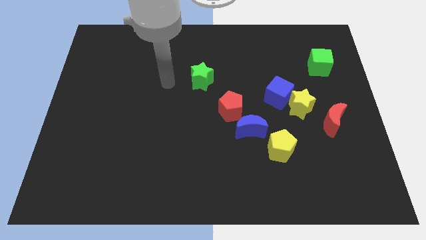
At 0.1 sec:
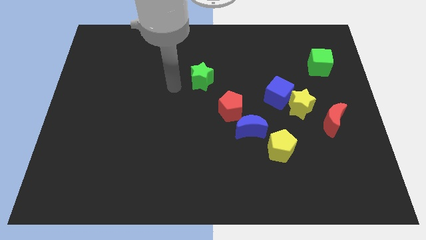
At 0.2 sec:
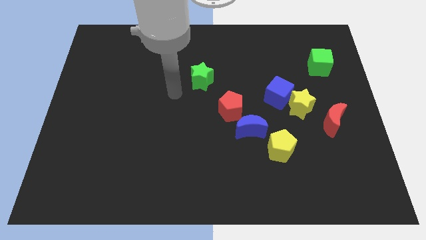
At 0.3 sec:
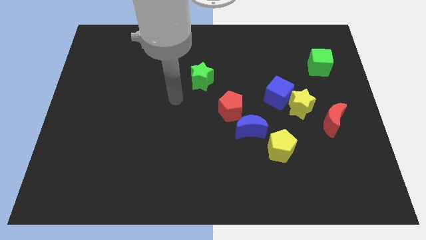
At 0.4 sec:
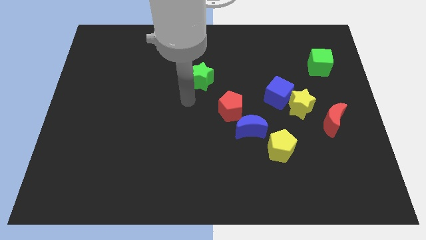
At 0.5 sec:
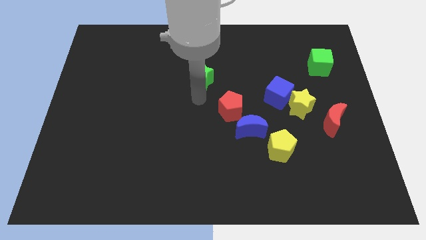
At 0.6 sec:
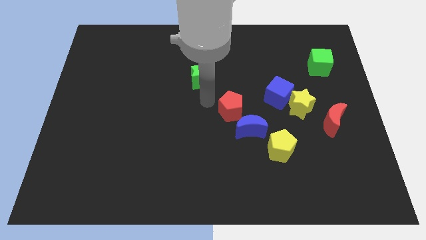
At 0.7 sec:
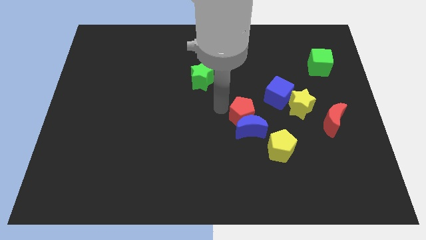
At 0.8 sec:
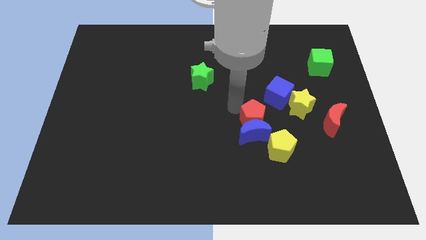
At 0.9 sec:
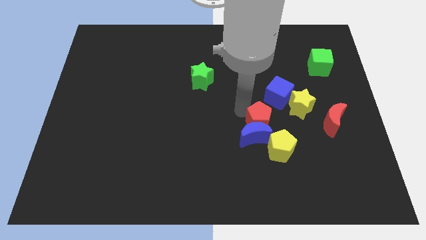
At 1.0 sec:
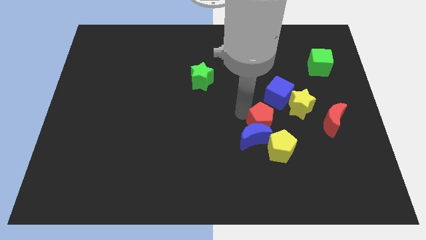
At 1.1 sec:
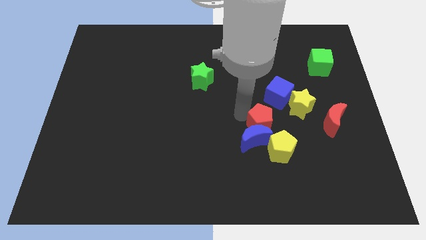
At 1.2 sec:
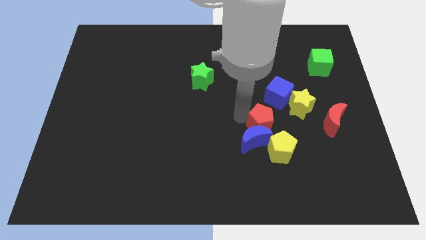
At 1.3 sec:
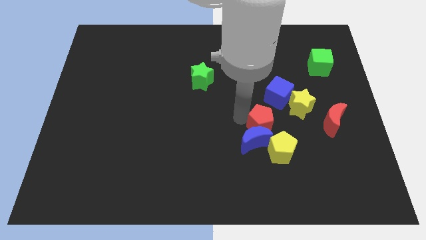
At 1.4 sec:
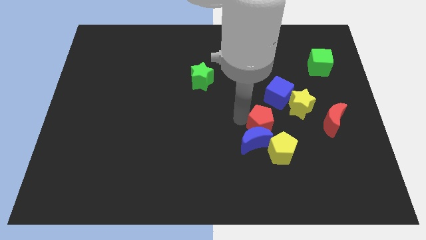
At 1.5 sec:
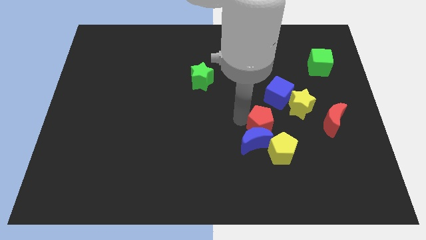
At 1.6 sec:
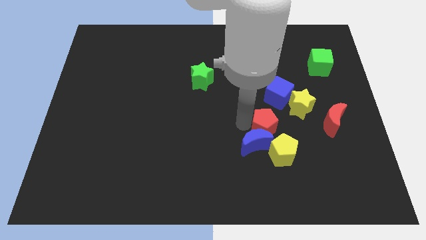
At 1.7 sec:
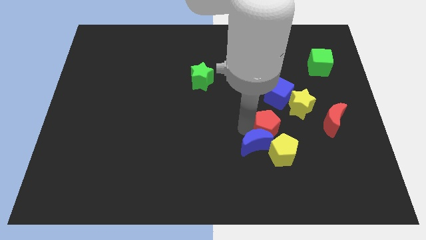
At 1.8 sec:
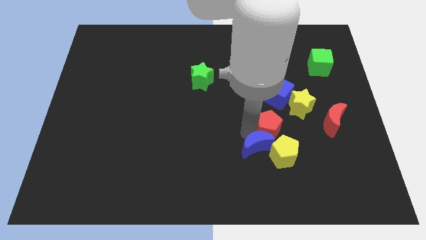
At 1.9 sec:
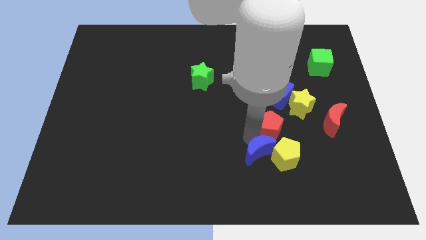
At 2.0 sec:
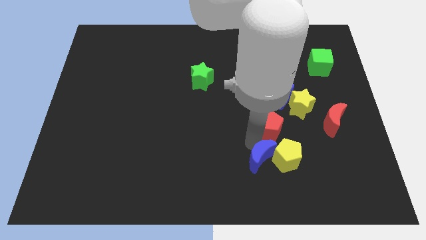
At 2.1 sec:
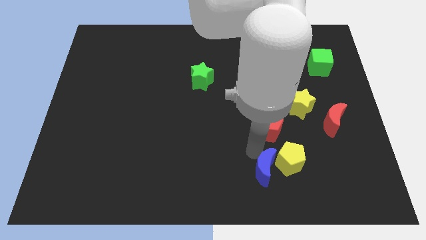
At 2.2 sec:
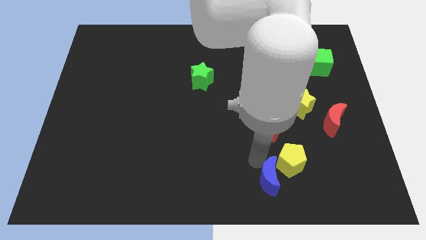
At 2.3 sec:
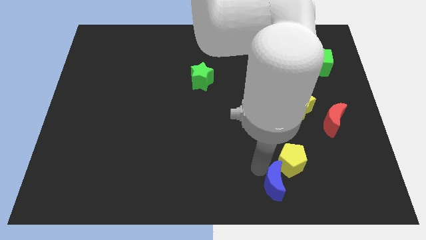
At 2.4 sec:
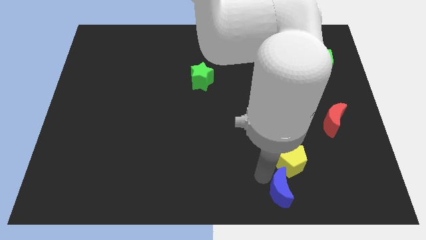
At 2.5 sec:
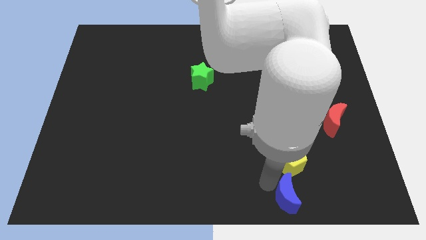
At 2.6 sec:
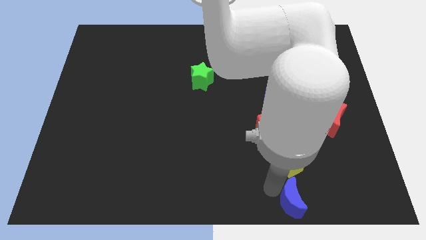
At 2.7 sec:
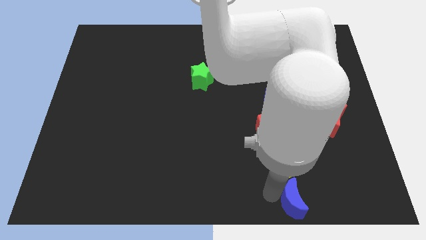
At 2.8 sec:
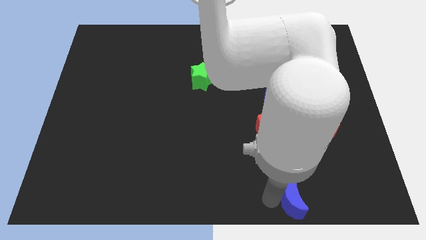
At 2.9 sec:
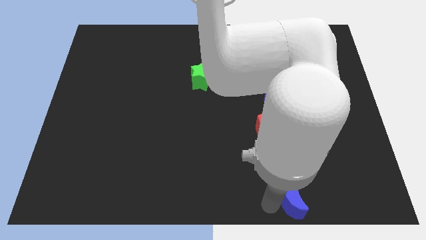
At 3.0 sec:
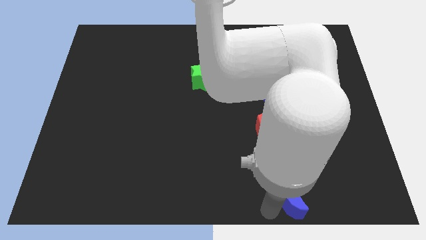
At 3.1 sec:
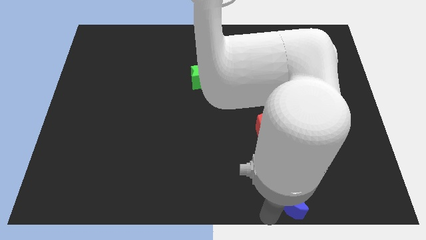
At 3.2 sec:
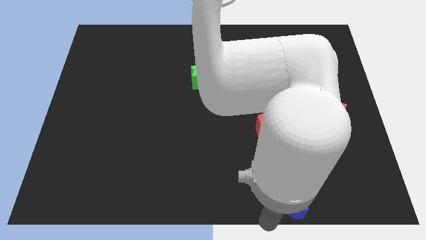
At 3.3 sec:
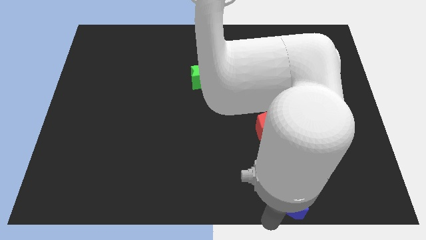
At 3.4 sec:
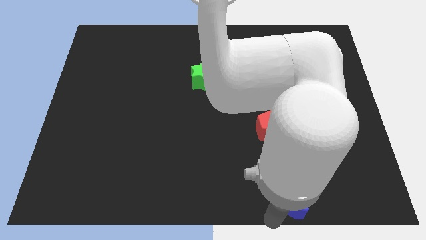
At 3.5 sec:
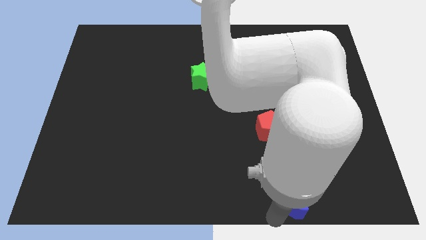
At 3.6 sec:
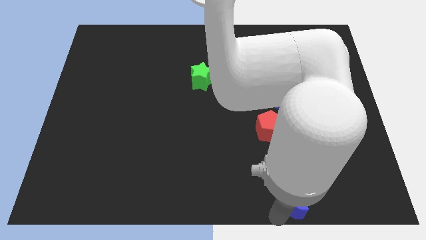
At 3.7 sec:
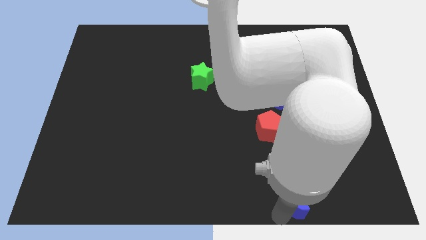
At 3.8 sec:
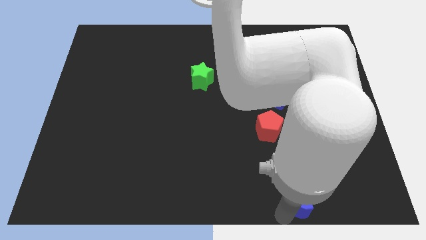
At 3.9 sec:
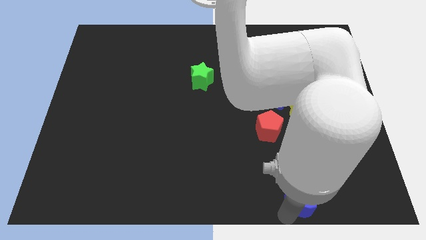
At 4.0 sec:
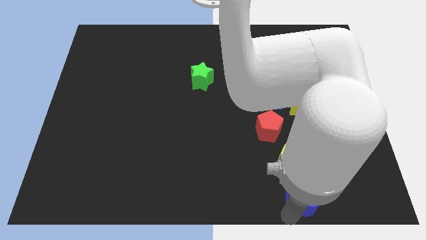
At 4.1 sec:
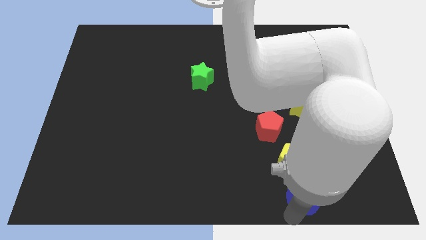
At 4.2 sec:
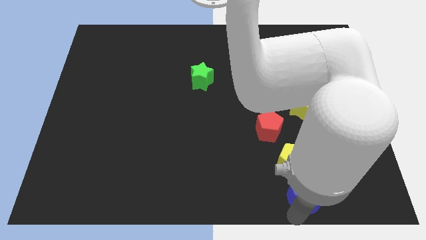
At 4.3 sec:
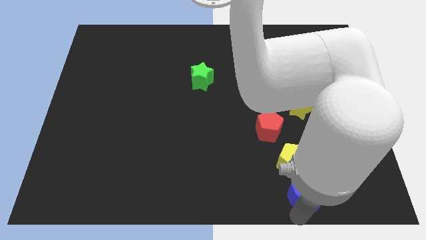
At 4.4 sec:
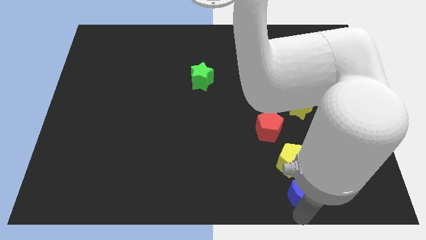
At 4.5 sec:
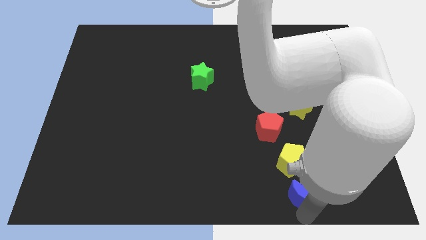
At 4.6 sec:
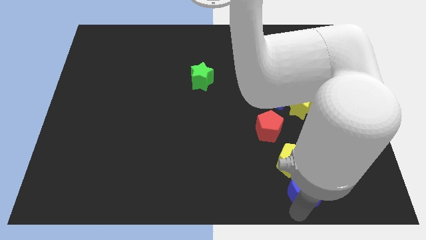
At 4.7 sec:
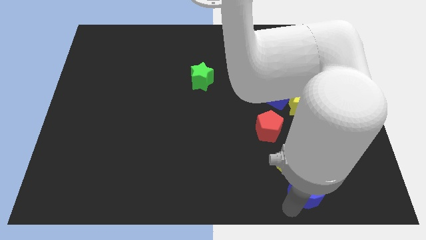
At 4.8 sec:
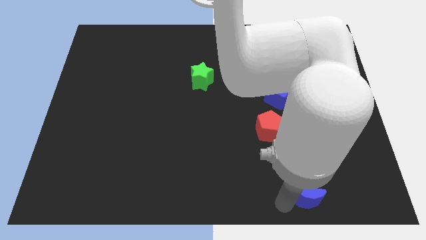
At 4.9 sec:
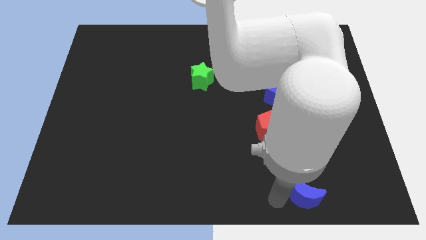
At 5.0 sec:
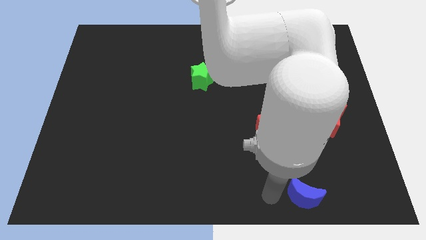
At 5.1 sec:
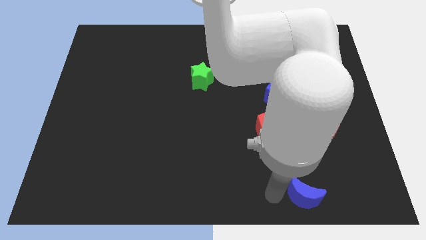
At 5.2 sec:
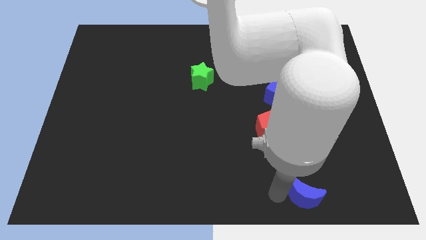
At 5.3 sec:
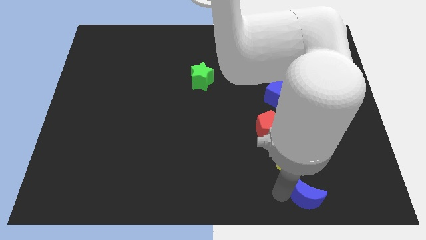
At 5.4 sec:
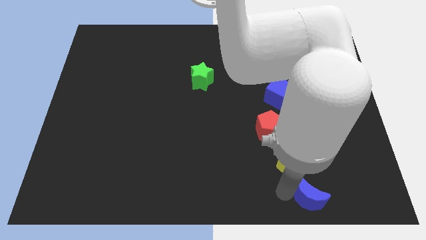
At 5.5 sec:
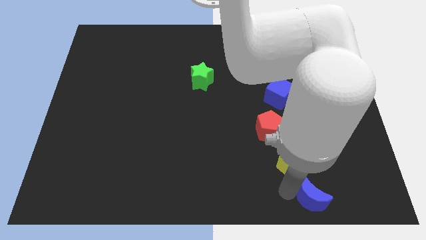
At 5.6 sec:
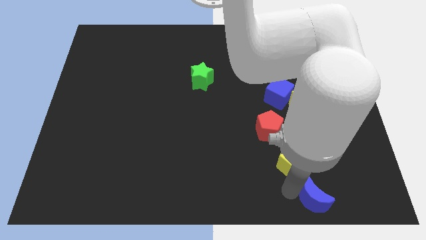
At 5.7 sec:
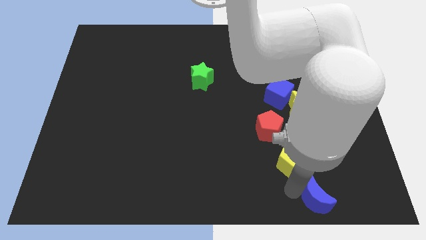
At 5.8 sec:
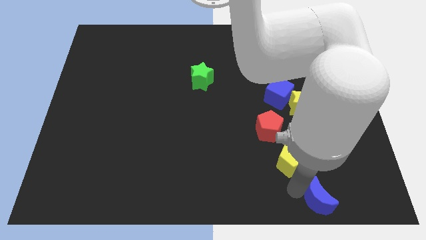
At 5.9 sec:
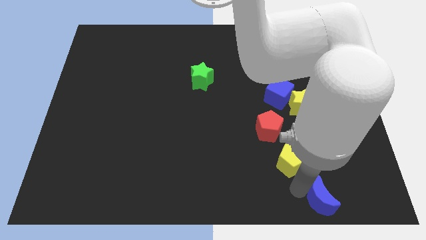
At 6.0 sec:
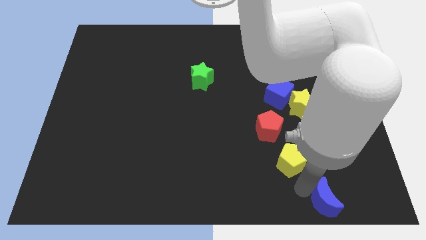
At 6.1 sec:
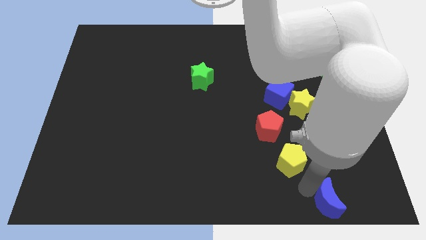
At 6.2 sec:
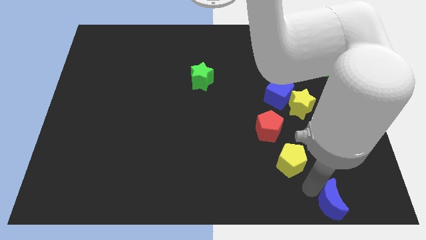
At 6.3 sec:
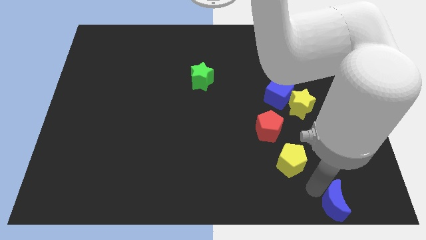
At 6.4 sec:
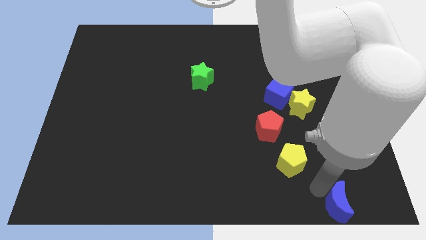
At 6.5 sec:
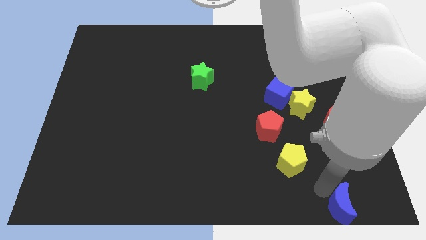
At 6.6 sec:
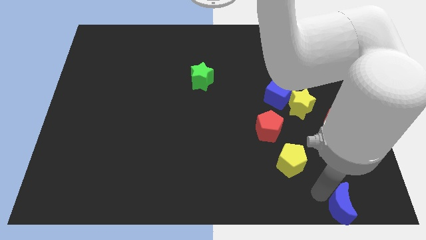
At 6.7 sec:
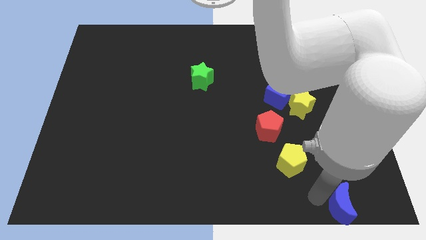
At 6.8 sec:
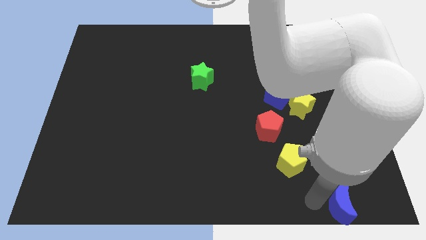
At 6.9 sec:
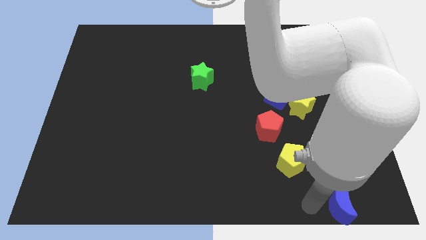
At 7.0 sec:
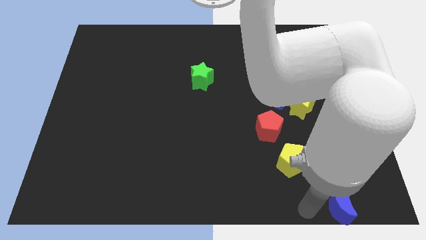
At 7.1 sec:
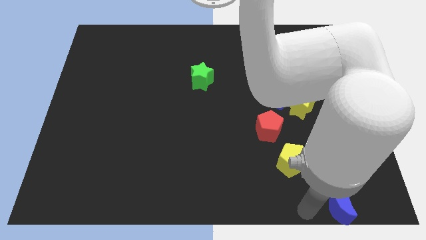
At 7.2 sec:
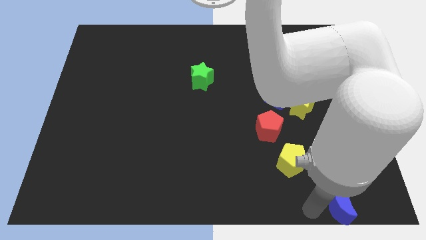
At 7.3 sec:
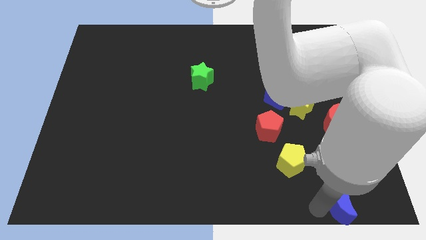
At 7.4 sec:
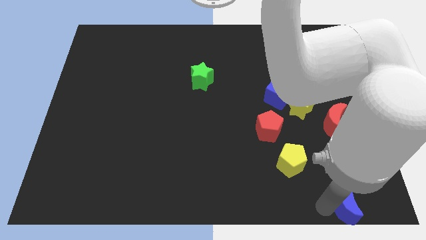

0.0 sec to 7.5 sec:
push the blue moon to the bottom right
